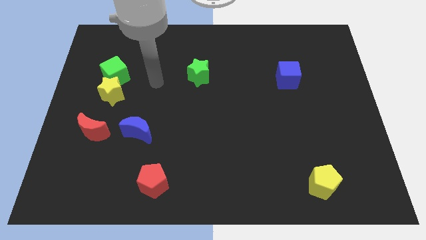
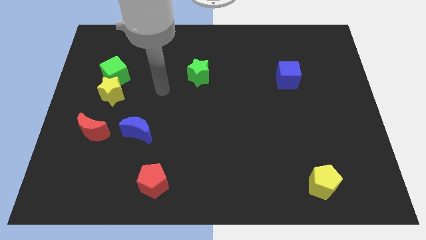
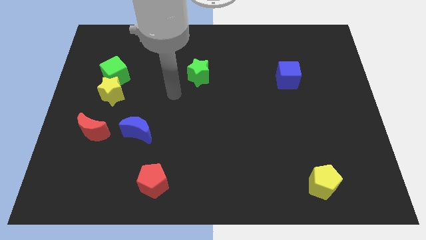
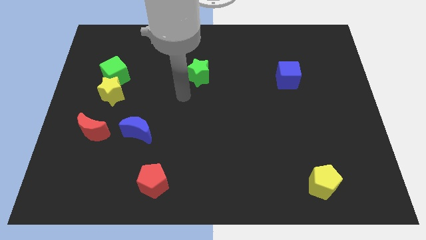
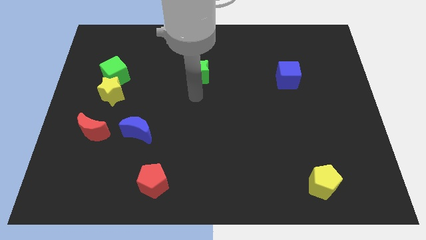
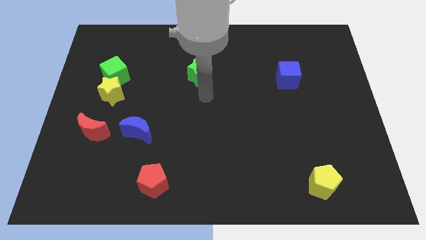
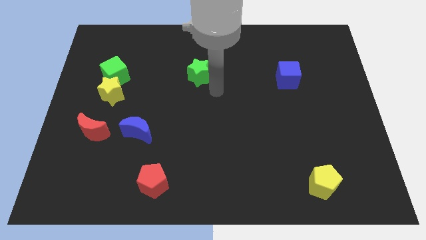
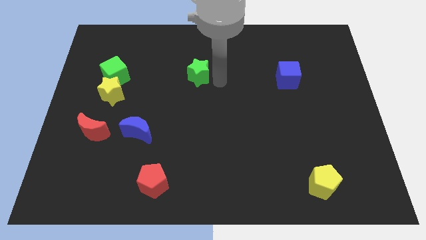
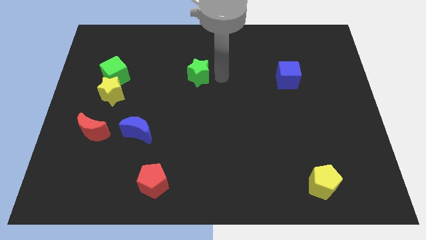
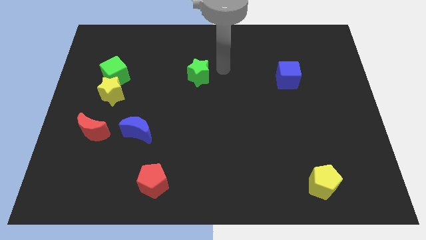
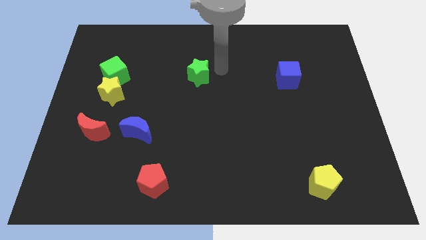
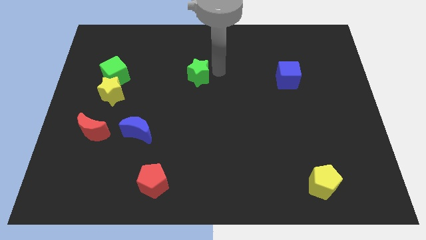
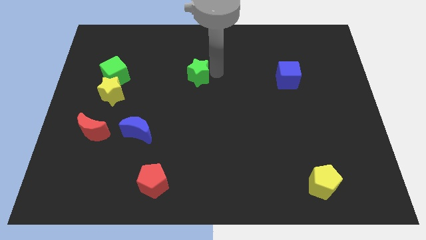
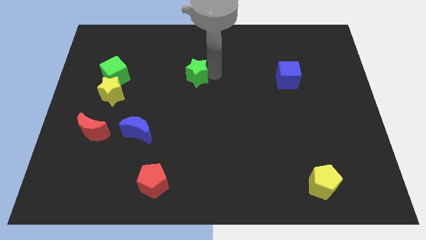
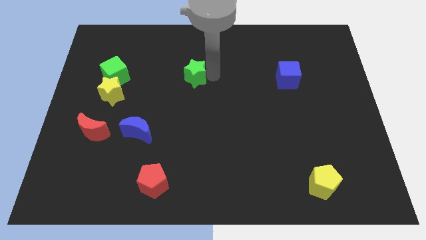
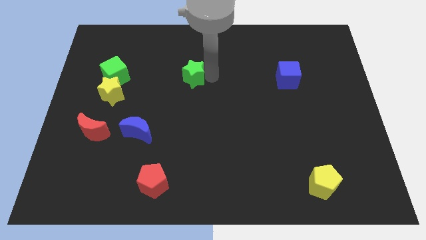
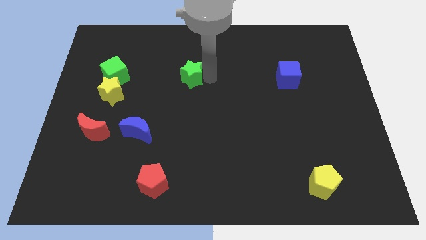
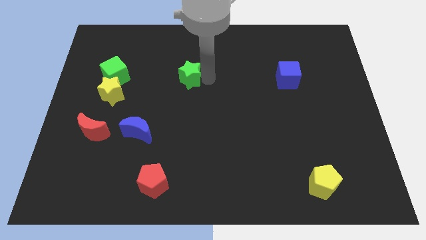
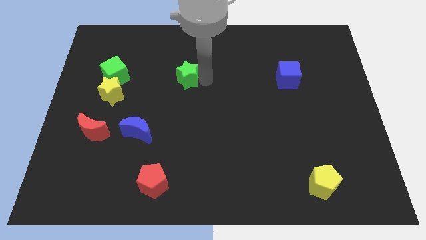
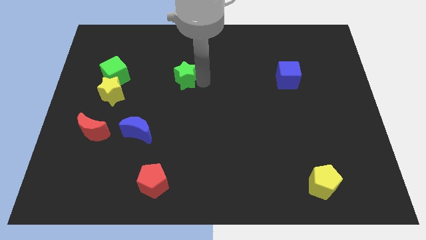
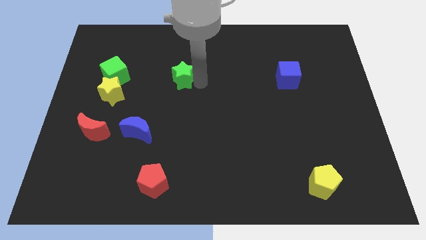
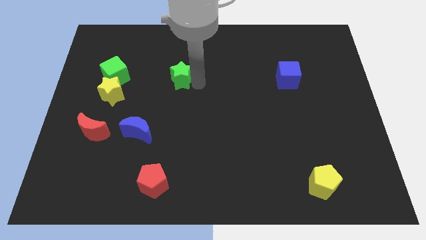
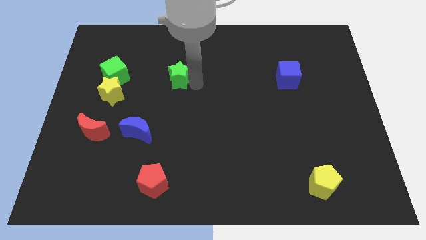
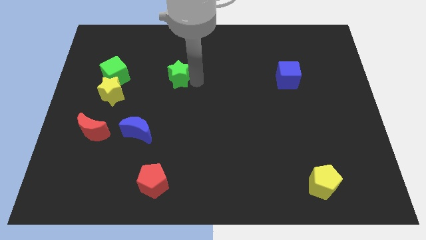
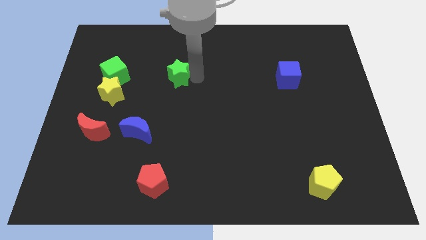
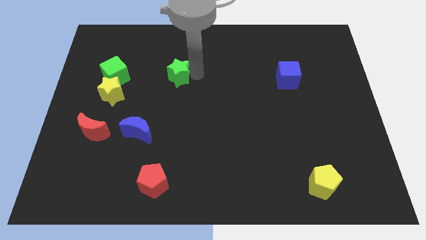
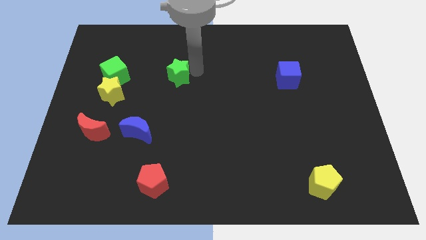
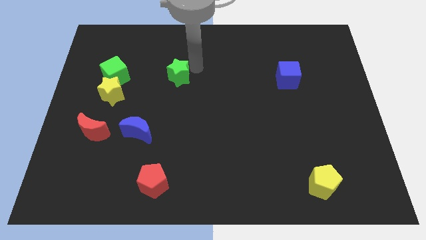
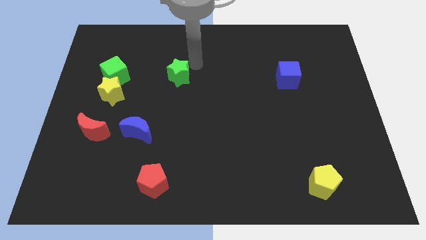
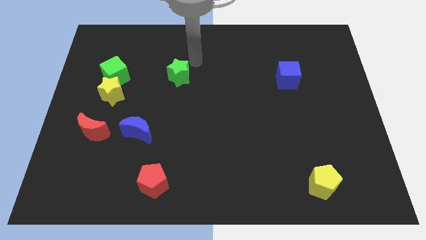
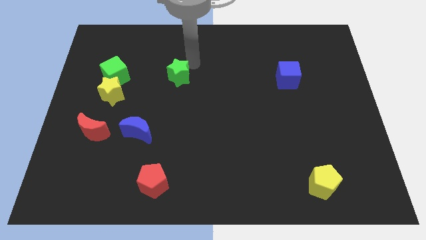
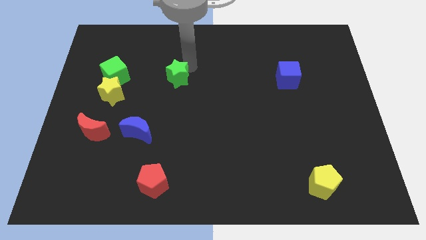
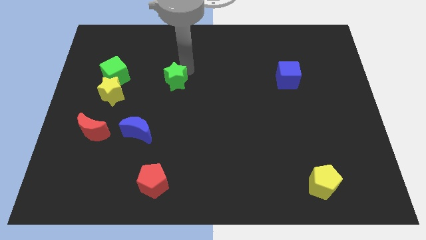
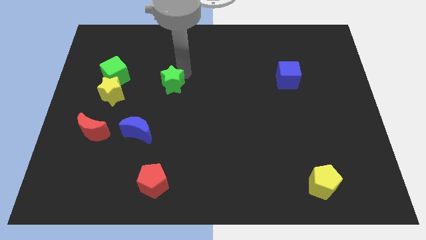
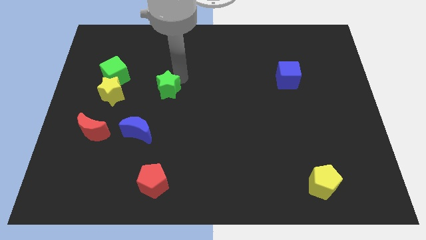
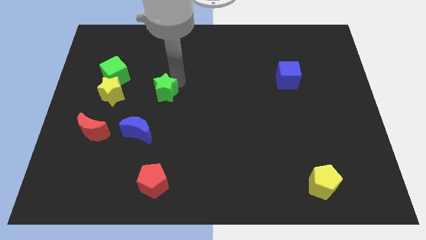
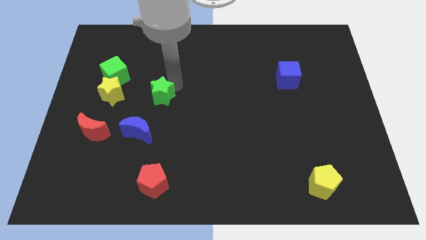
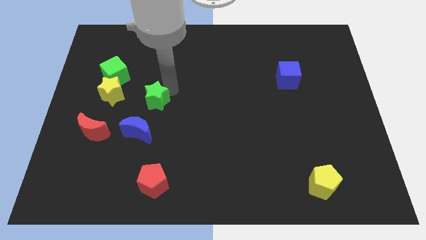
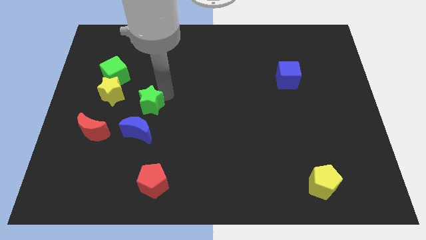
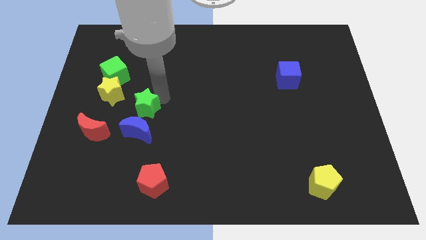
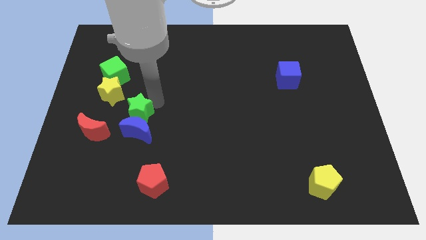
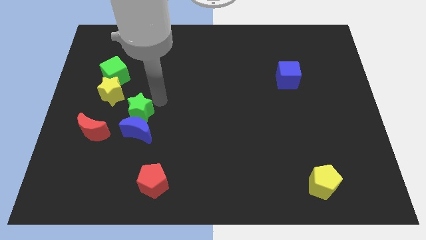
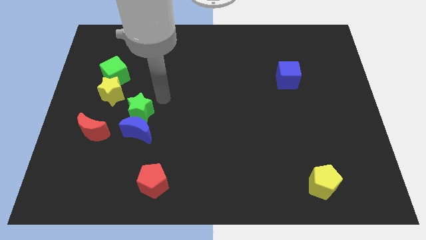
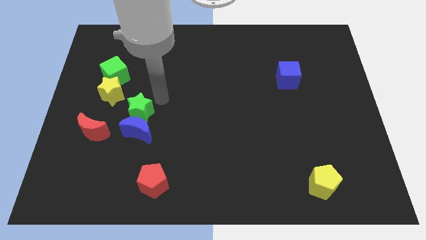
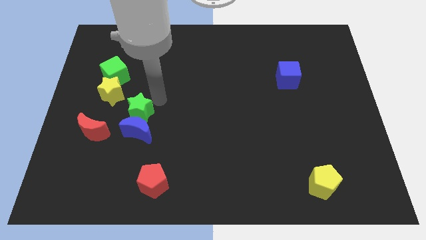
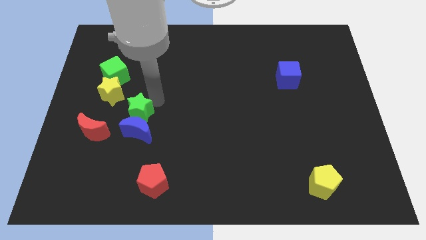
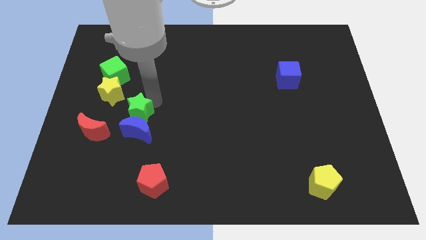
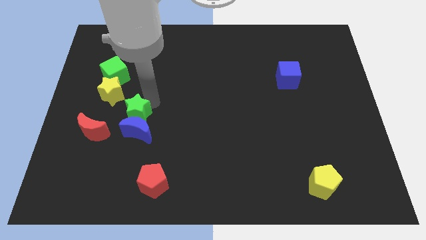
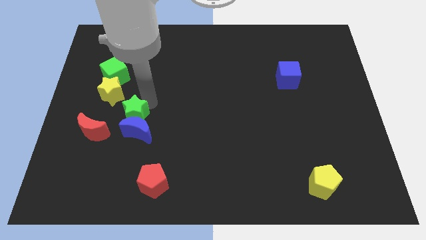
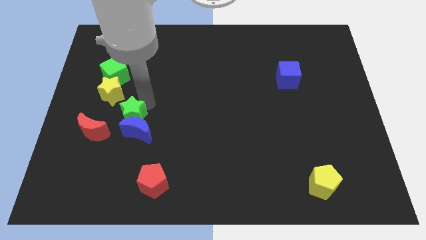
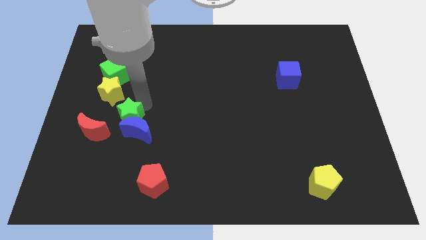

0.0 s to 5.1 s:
move the green star downwards and to the left diagonally

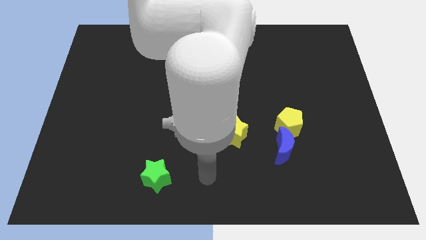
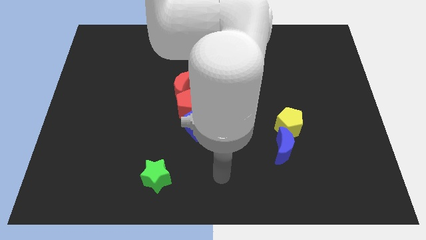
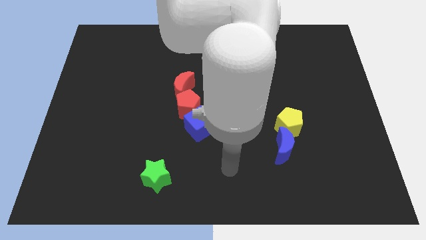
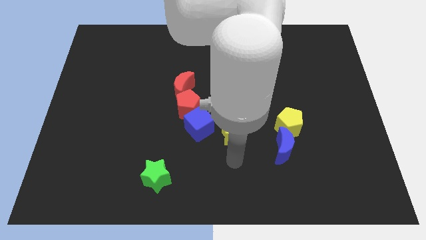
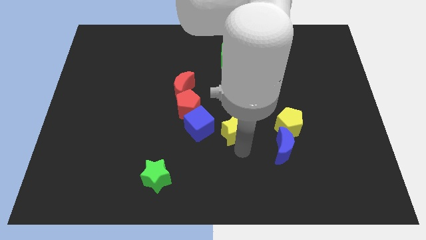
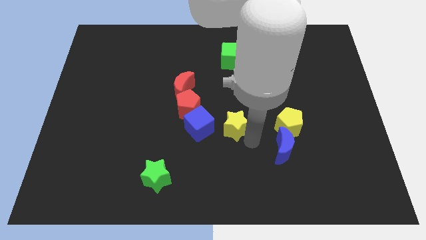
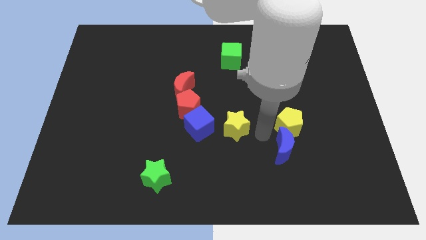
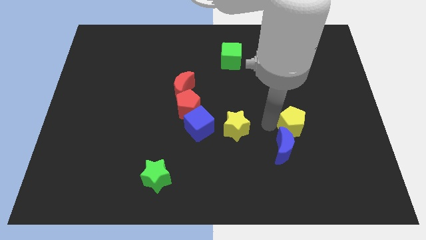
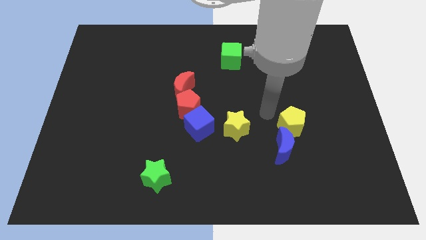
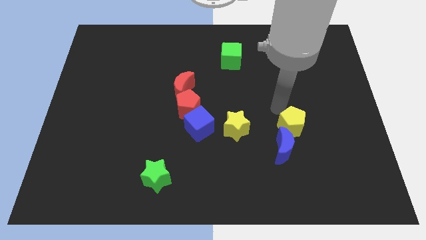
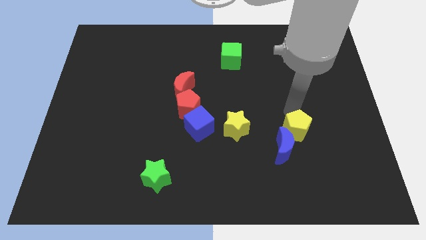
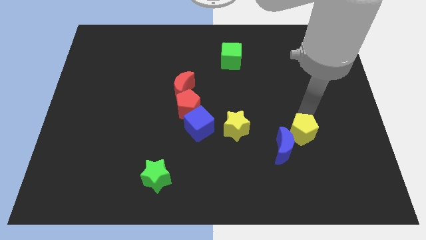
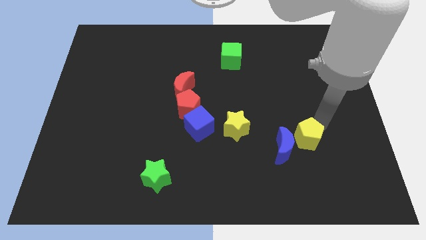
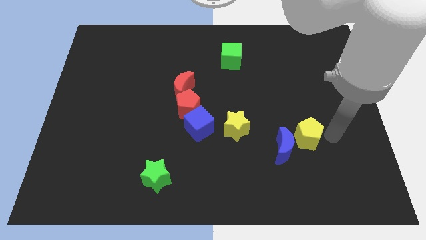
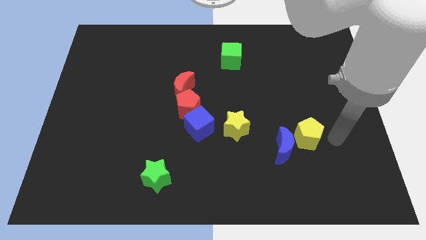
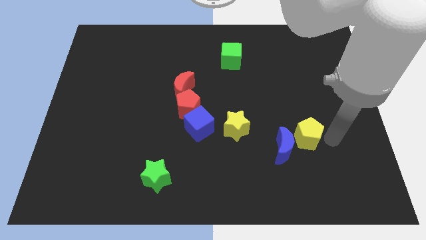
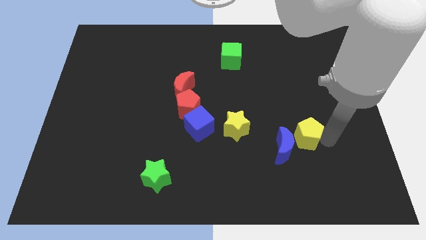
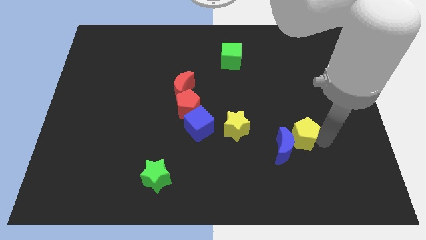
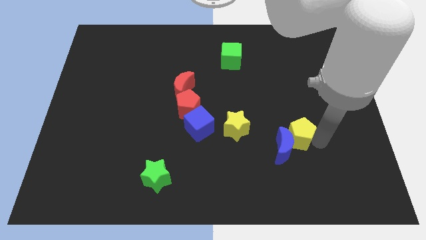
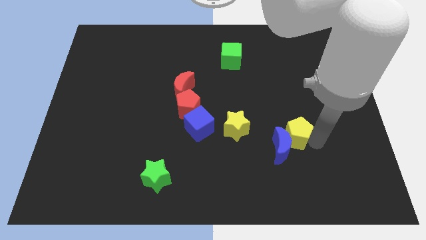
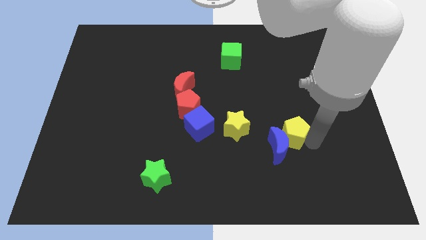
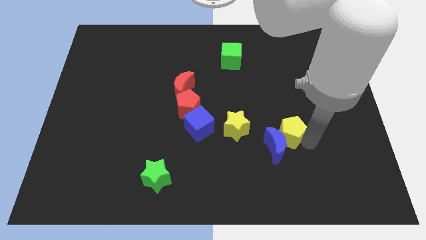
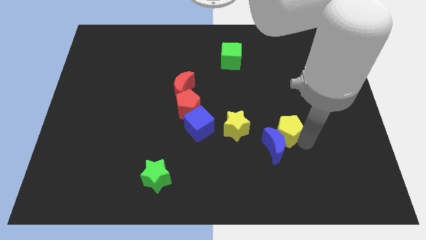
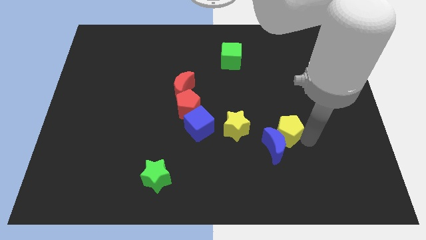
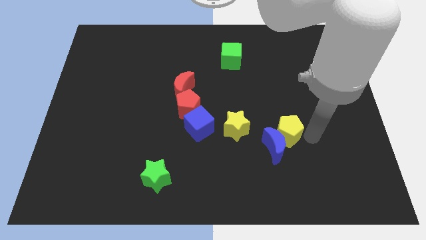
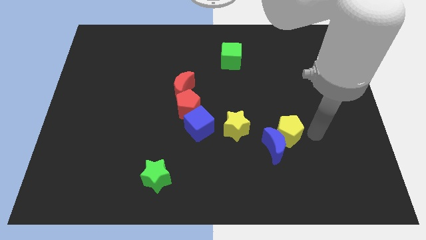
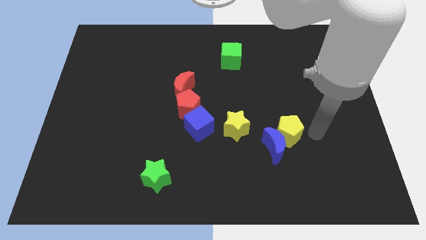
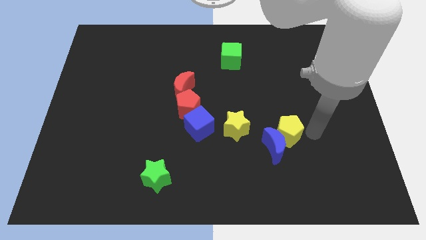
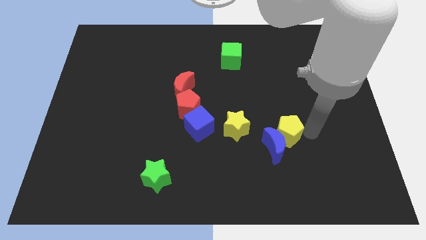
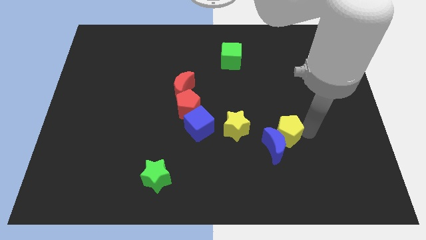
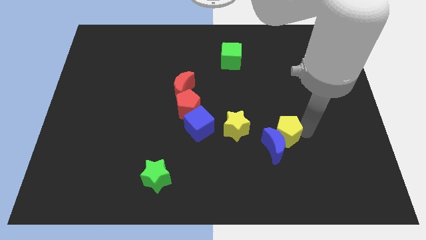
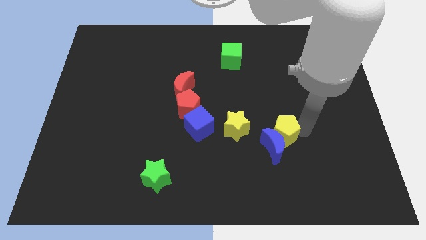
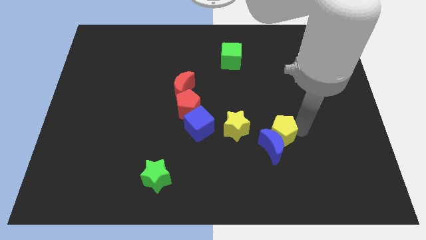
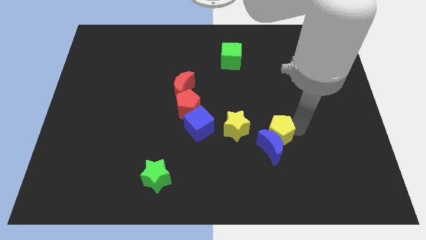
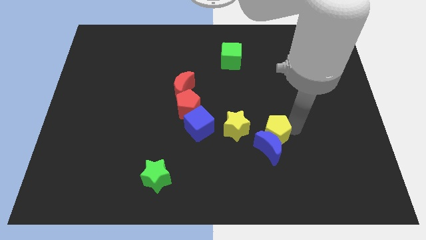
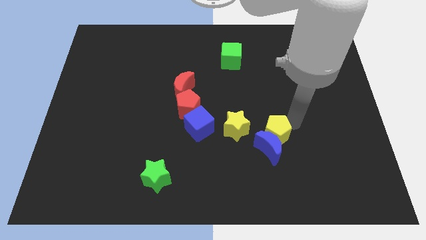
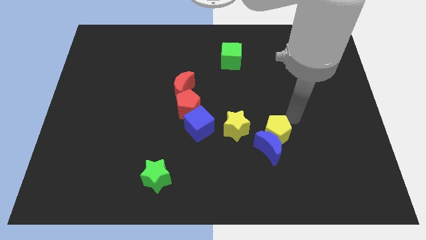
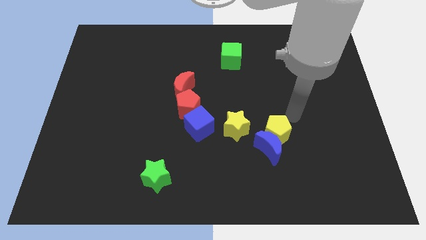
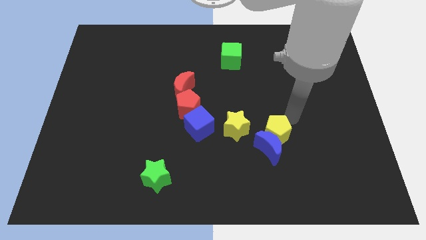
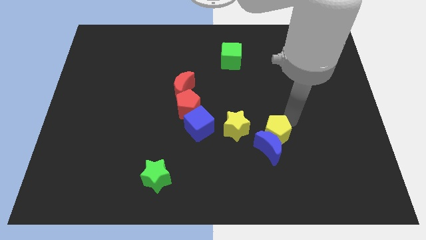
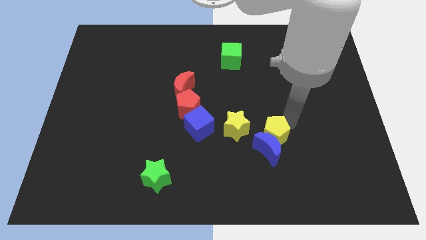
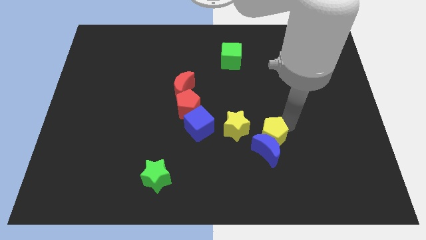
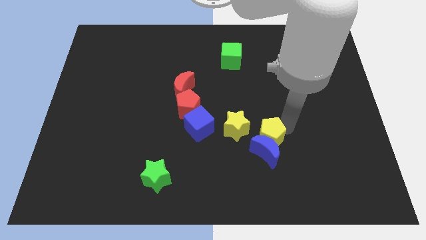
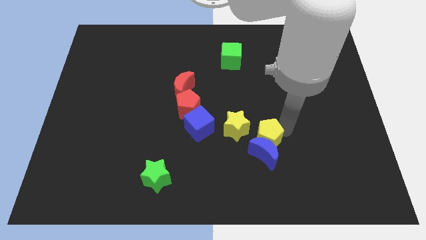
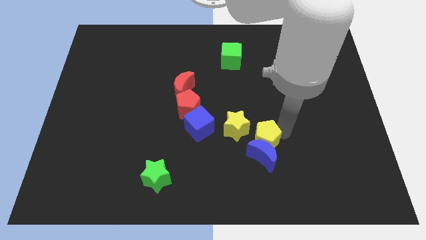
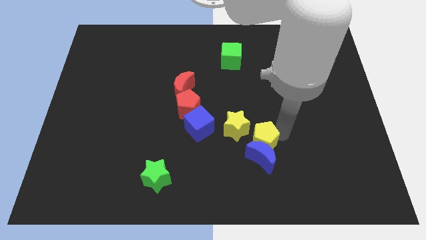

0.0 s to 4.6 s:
move the yellow pentagon a little down and to the left diagonally
